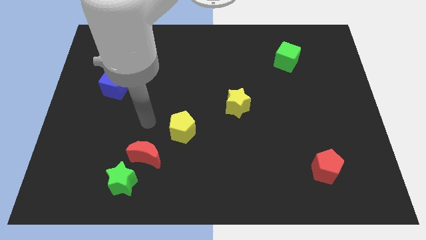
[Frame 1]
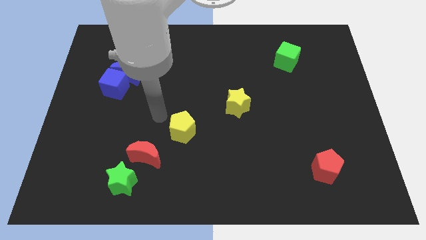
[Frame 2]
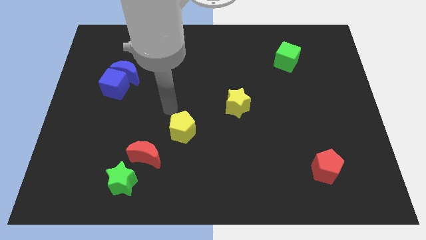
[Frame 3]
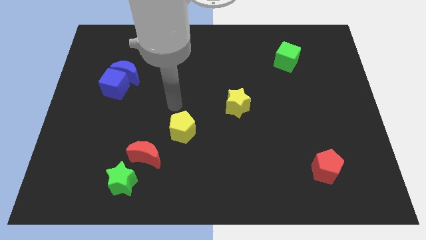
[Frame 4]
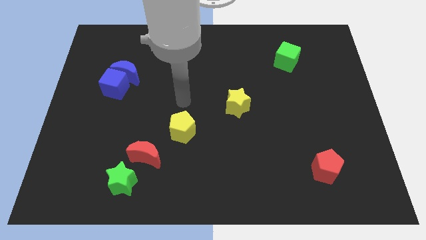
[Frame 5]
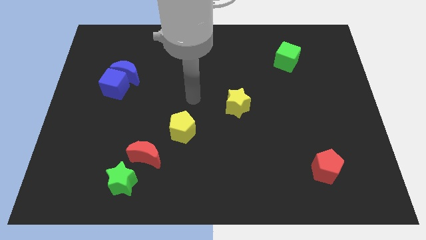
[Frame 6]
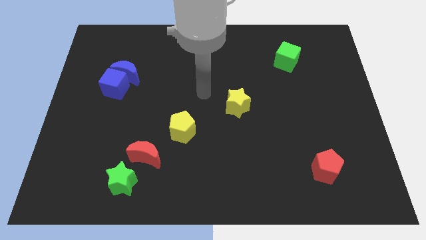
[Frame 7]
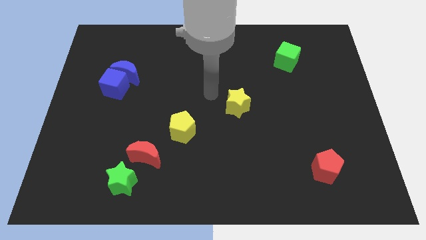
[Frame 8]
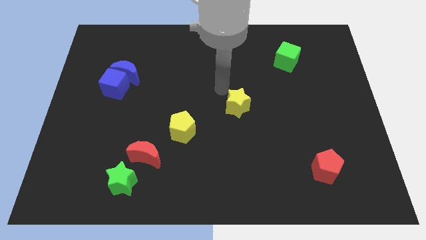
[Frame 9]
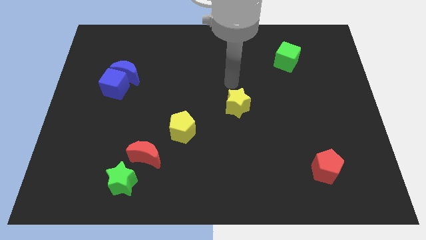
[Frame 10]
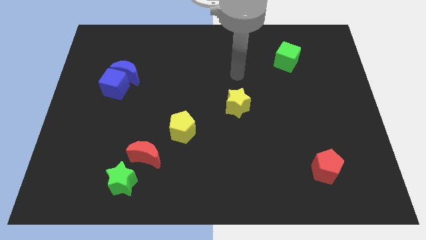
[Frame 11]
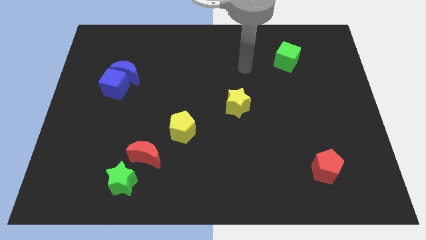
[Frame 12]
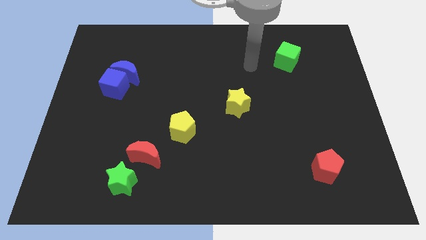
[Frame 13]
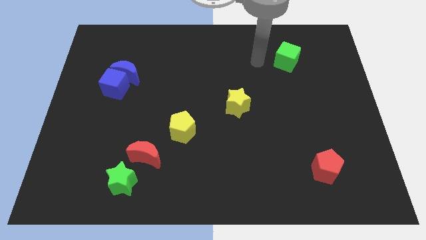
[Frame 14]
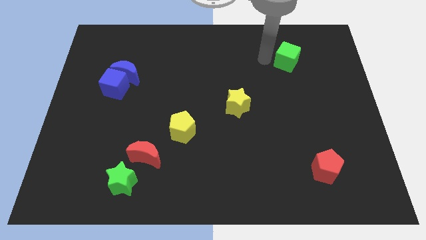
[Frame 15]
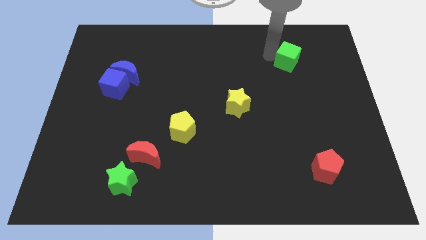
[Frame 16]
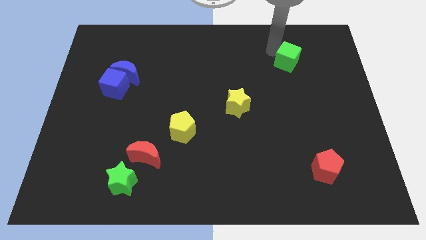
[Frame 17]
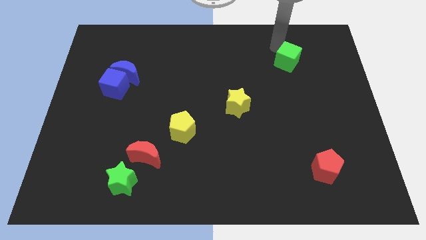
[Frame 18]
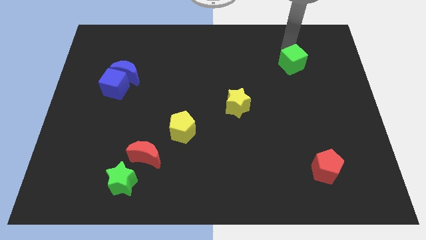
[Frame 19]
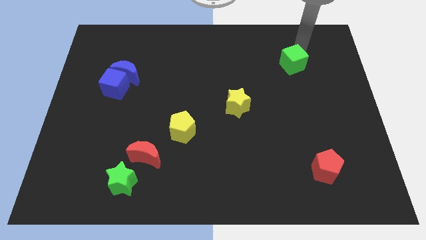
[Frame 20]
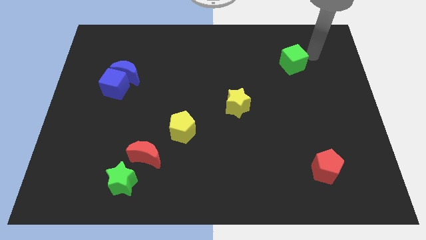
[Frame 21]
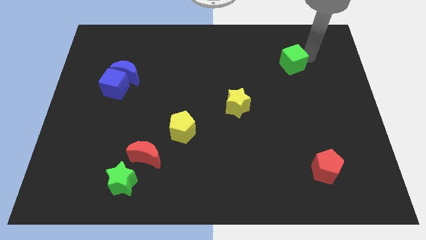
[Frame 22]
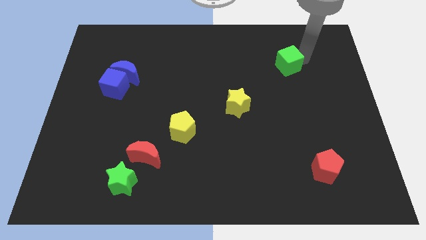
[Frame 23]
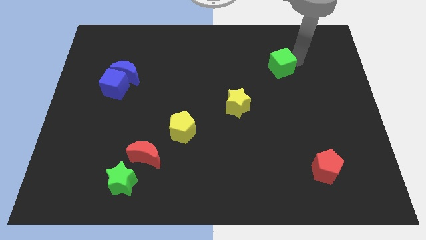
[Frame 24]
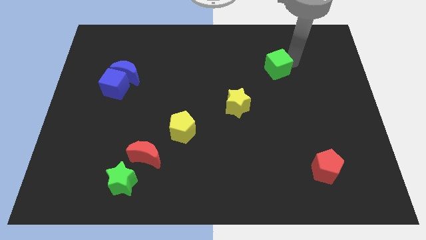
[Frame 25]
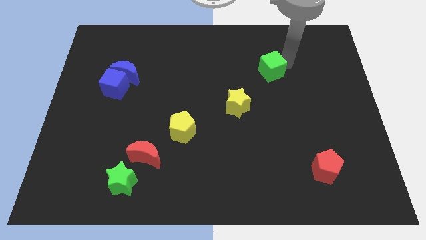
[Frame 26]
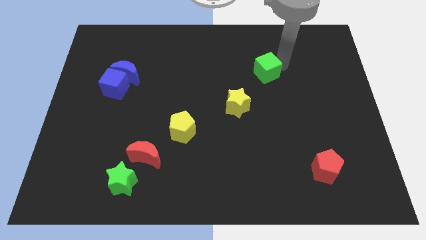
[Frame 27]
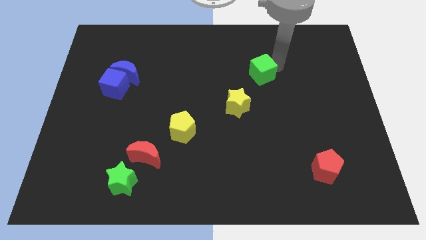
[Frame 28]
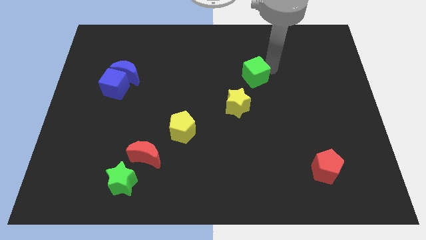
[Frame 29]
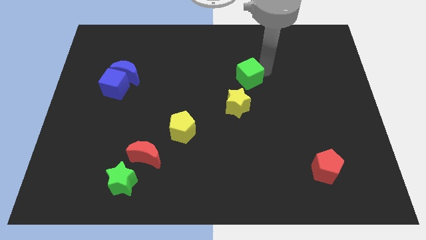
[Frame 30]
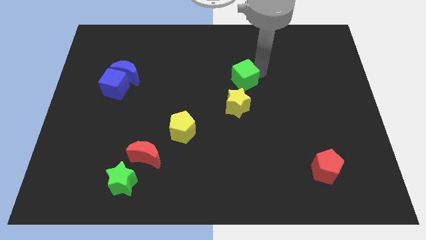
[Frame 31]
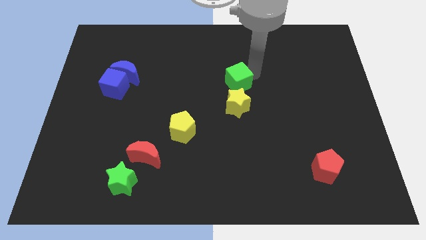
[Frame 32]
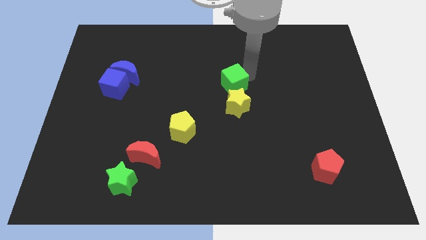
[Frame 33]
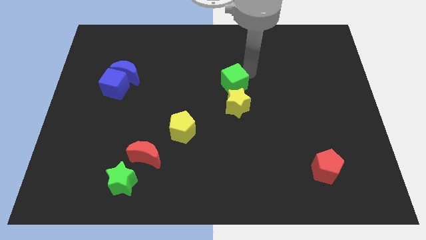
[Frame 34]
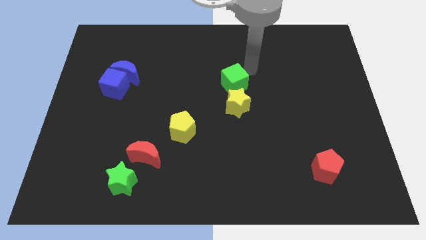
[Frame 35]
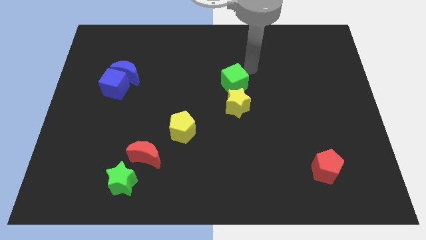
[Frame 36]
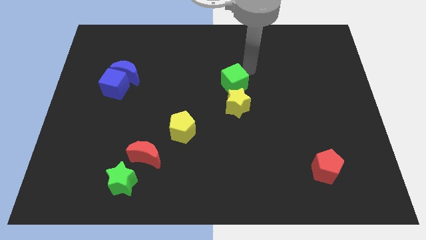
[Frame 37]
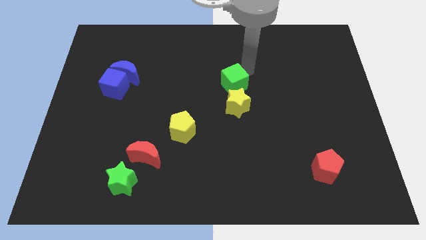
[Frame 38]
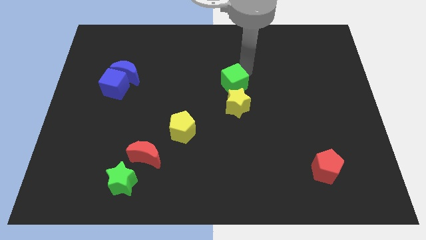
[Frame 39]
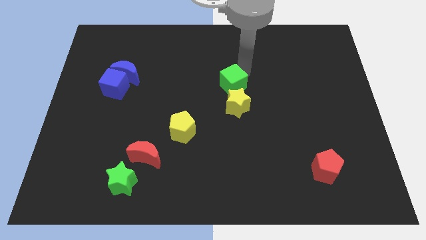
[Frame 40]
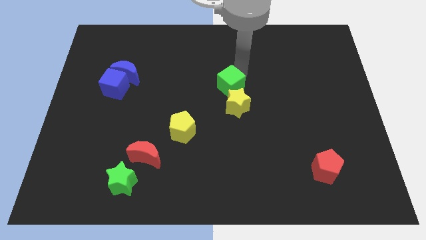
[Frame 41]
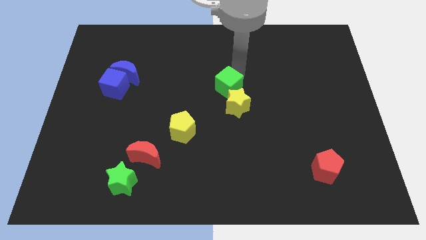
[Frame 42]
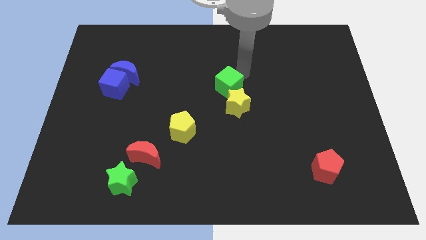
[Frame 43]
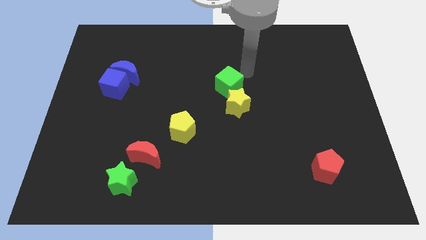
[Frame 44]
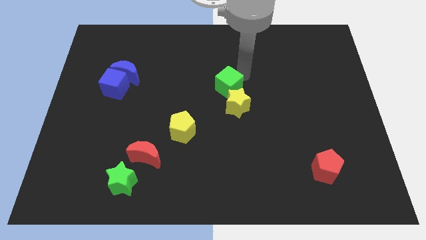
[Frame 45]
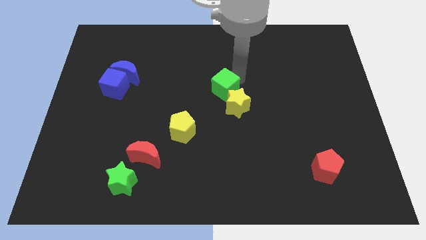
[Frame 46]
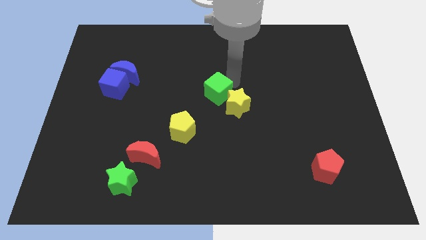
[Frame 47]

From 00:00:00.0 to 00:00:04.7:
slide the green cube left of the yellow star

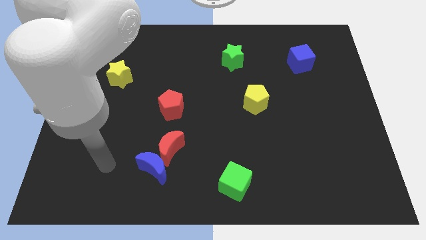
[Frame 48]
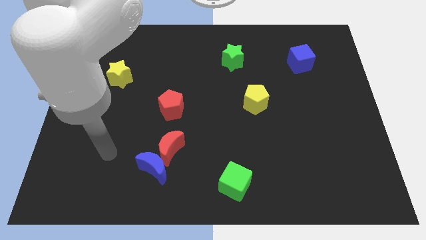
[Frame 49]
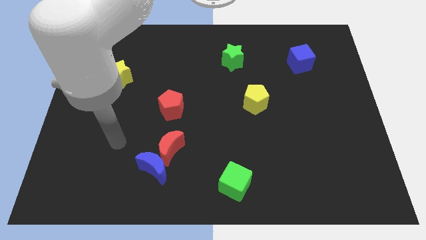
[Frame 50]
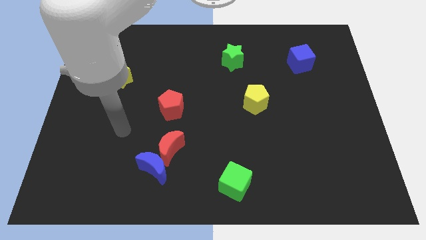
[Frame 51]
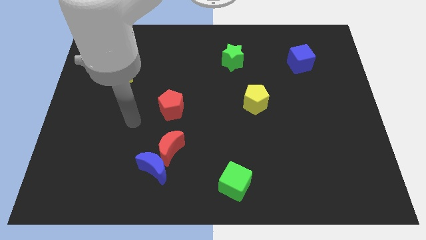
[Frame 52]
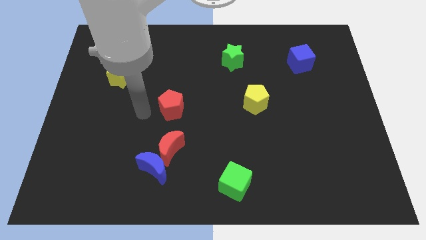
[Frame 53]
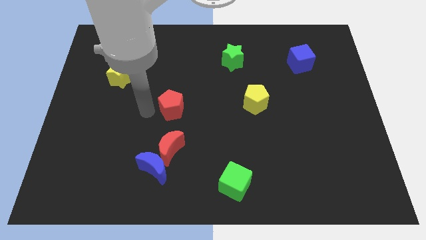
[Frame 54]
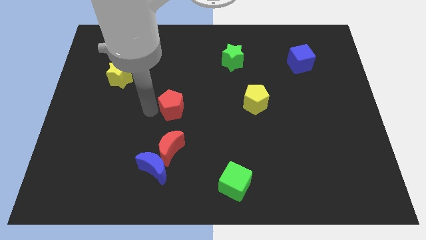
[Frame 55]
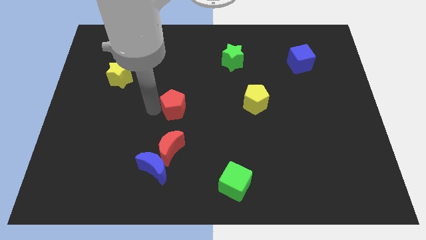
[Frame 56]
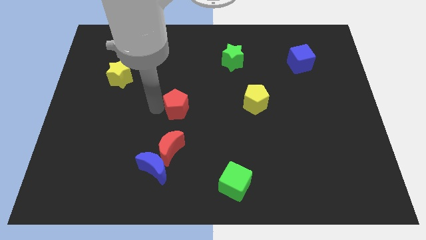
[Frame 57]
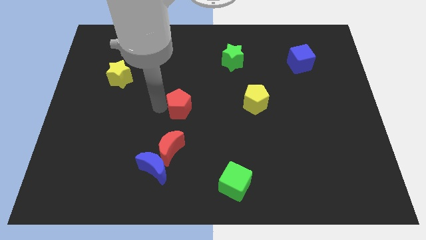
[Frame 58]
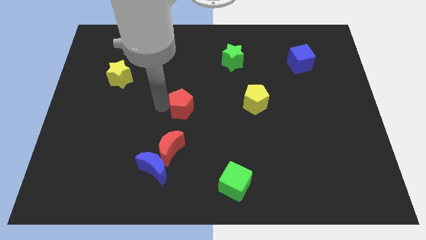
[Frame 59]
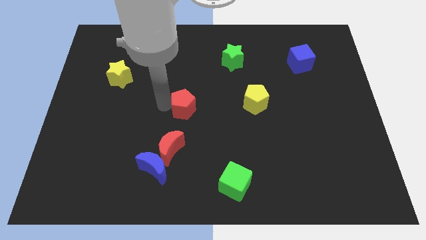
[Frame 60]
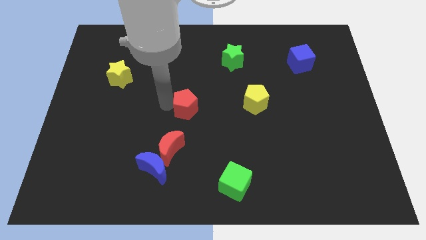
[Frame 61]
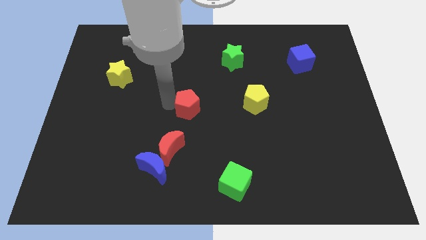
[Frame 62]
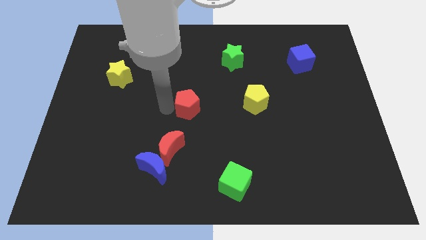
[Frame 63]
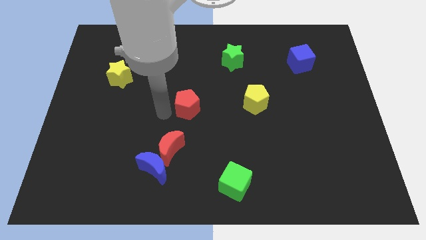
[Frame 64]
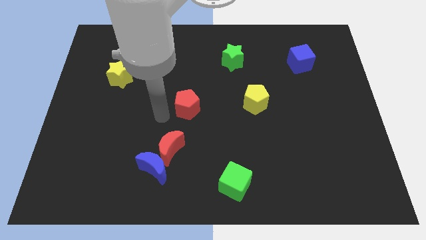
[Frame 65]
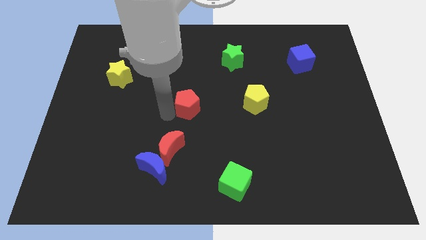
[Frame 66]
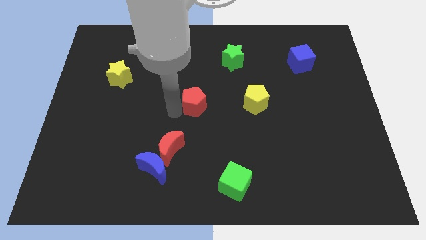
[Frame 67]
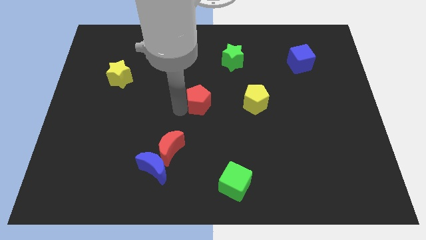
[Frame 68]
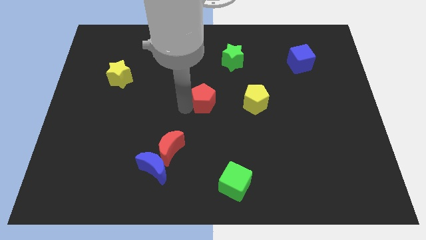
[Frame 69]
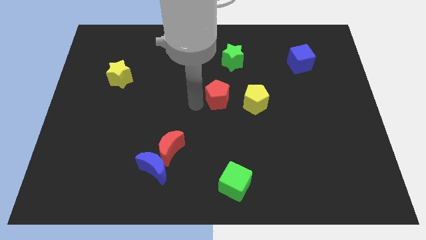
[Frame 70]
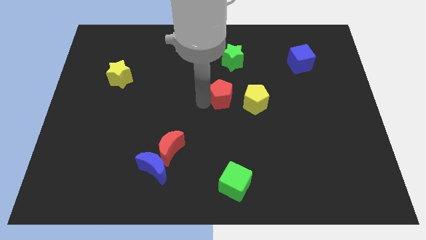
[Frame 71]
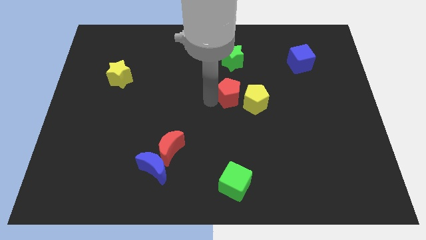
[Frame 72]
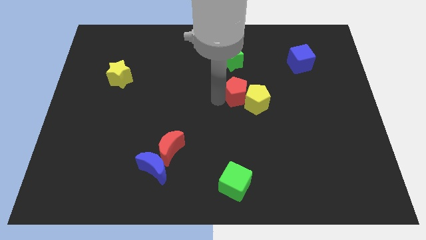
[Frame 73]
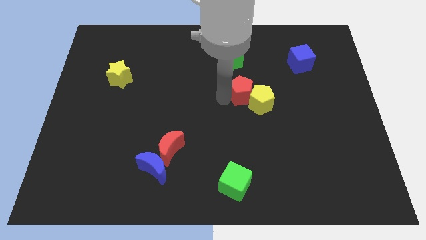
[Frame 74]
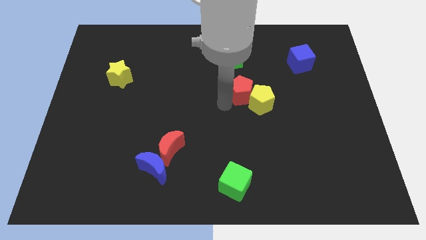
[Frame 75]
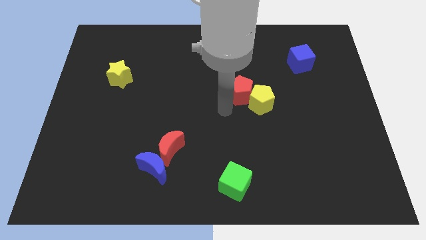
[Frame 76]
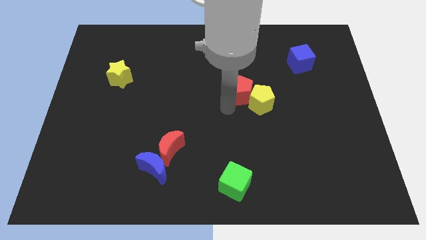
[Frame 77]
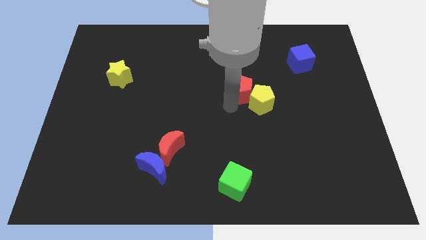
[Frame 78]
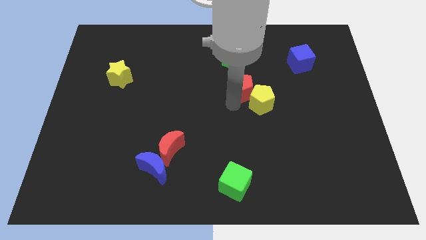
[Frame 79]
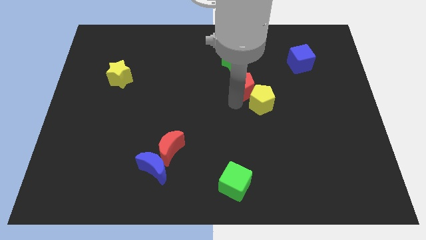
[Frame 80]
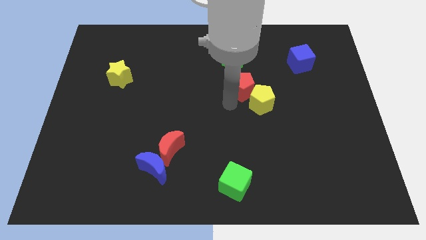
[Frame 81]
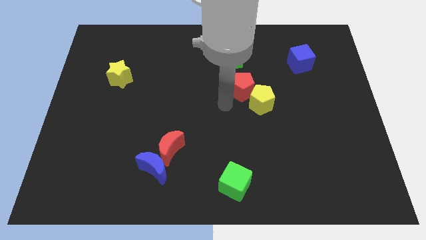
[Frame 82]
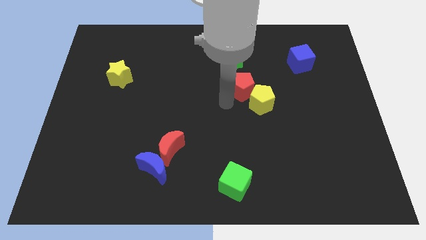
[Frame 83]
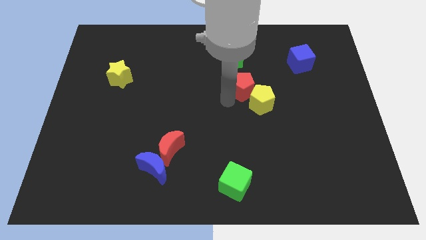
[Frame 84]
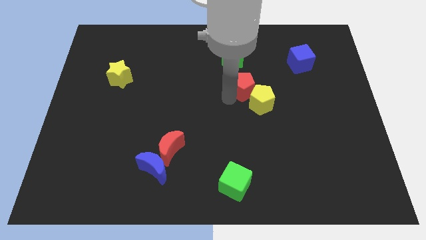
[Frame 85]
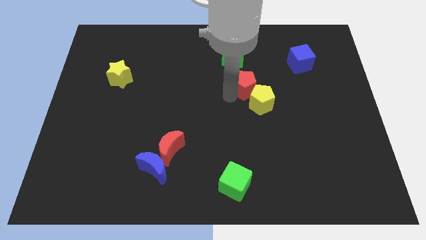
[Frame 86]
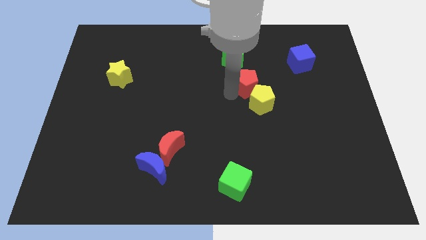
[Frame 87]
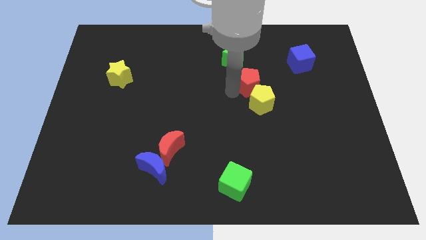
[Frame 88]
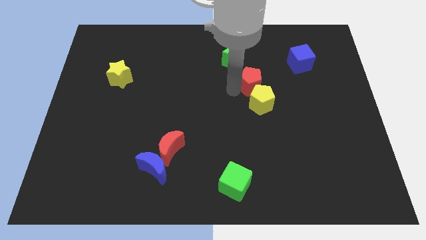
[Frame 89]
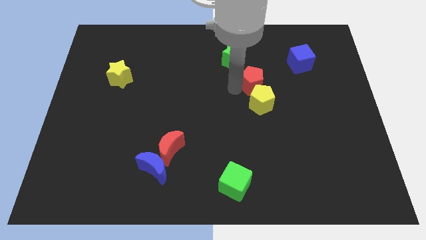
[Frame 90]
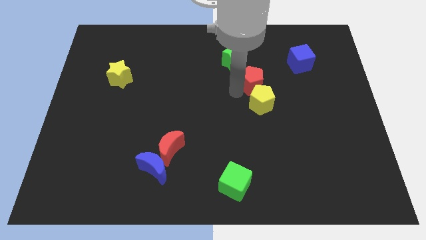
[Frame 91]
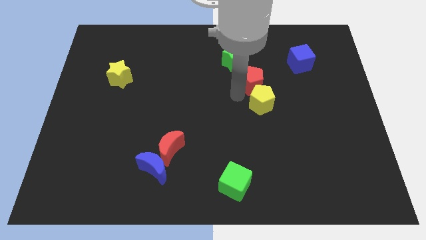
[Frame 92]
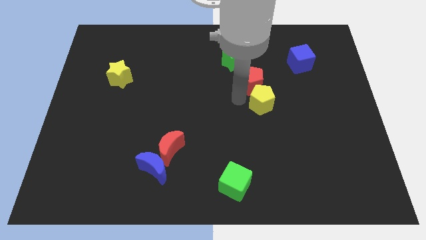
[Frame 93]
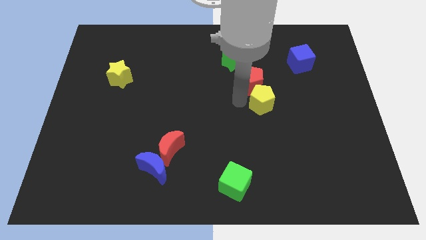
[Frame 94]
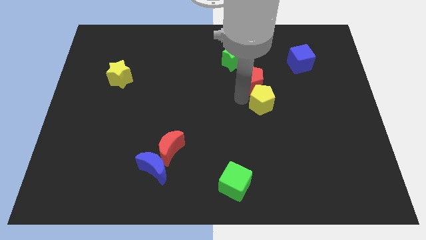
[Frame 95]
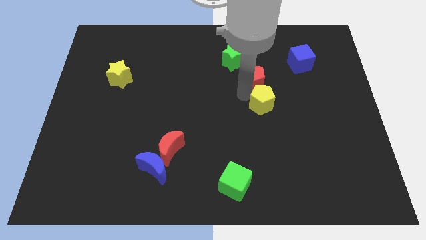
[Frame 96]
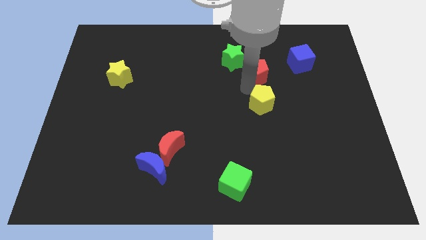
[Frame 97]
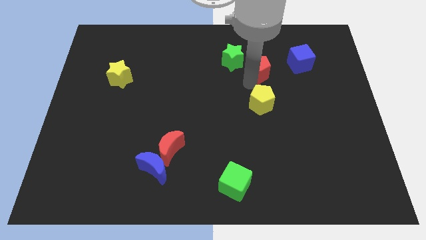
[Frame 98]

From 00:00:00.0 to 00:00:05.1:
put the red pentagon to the right of the green star
